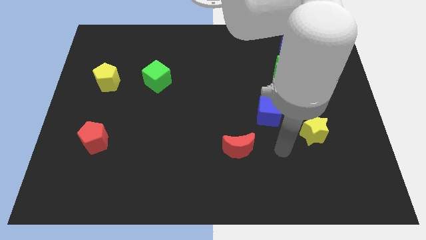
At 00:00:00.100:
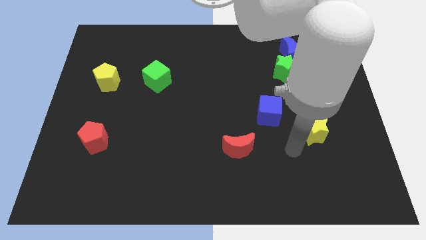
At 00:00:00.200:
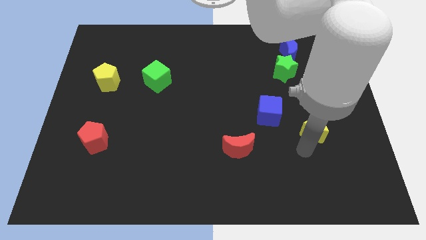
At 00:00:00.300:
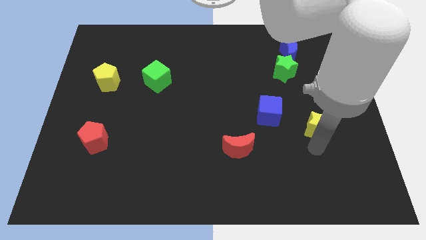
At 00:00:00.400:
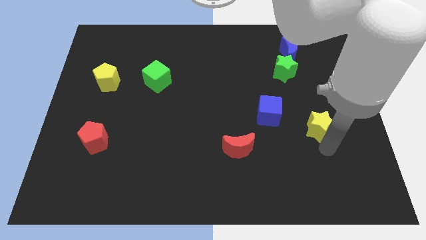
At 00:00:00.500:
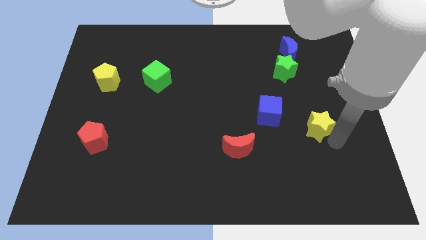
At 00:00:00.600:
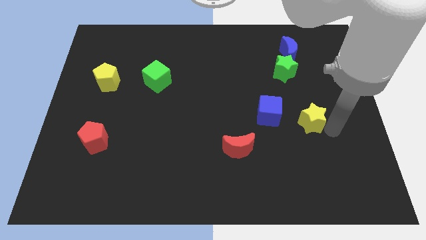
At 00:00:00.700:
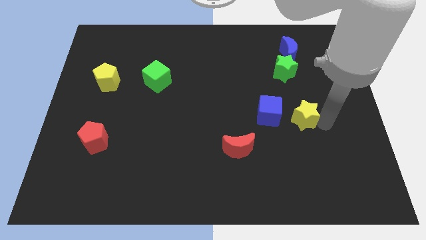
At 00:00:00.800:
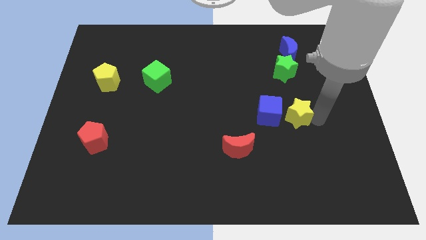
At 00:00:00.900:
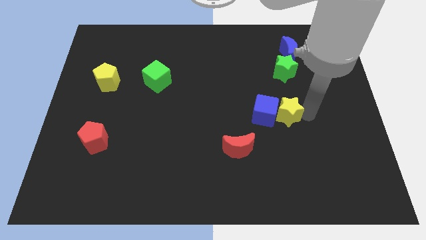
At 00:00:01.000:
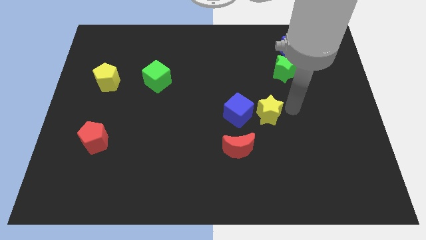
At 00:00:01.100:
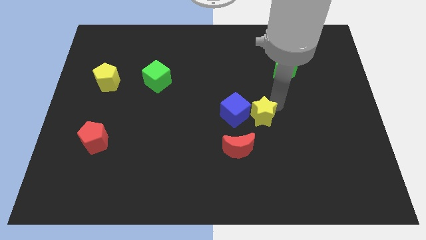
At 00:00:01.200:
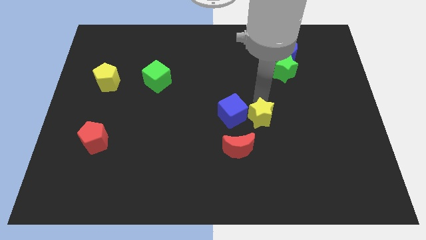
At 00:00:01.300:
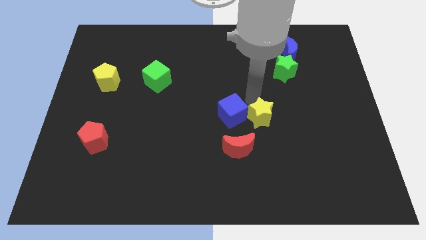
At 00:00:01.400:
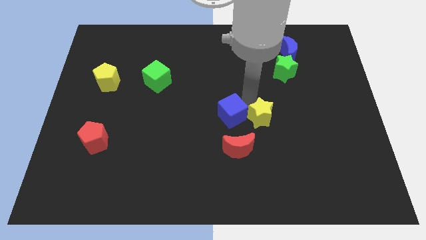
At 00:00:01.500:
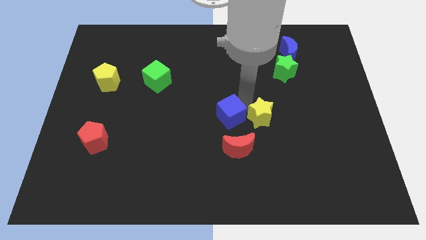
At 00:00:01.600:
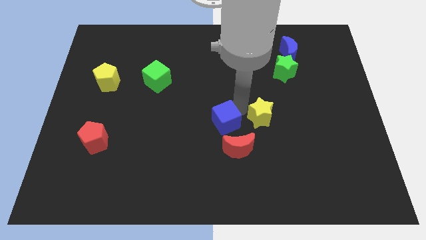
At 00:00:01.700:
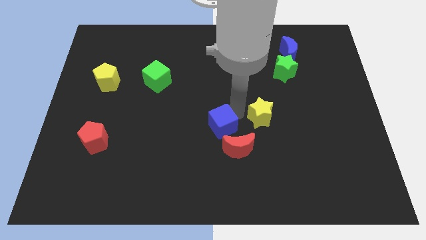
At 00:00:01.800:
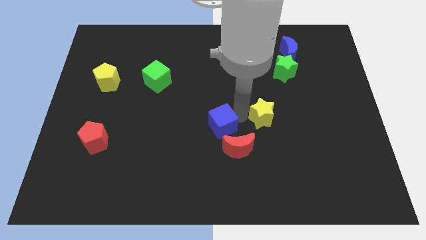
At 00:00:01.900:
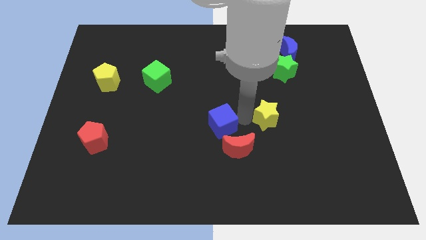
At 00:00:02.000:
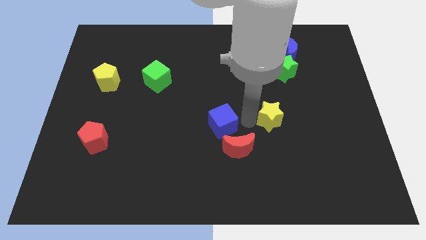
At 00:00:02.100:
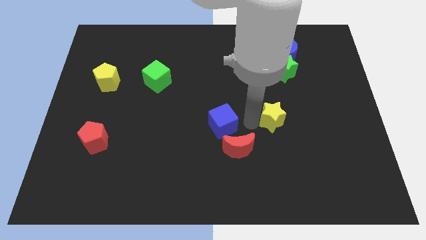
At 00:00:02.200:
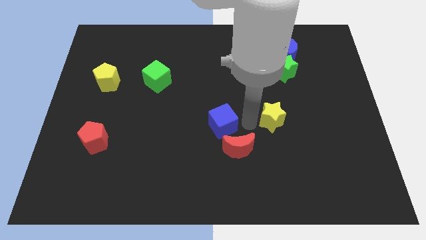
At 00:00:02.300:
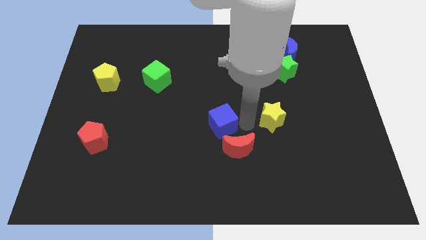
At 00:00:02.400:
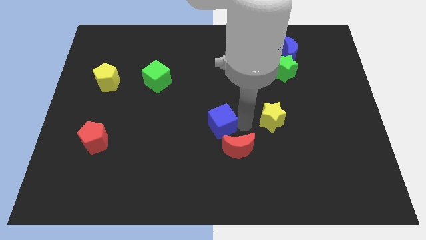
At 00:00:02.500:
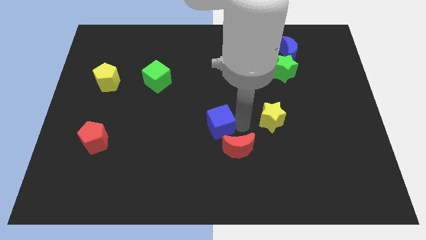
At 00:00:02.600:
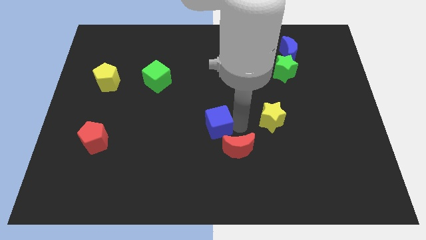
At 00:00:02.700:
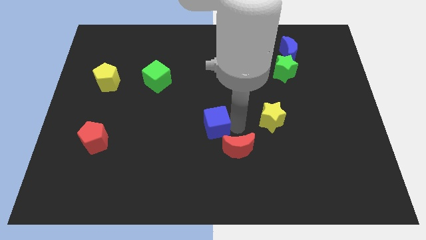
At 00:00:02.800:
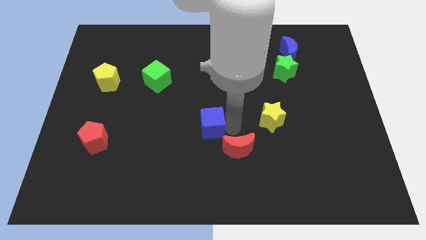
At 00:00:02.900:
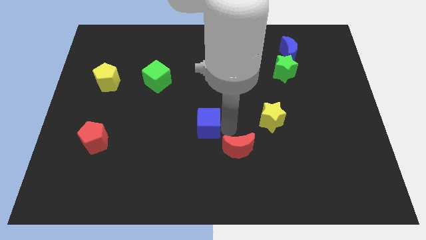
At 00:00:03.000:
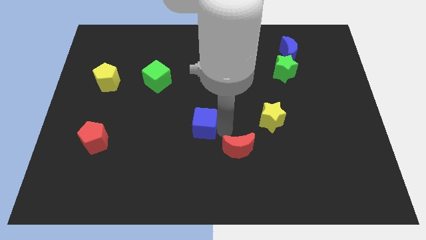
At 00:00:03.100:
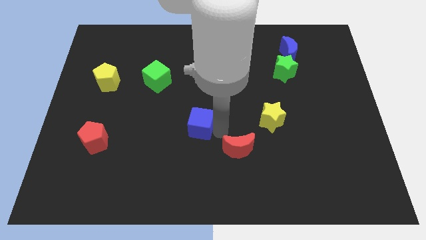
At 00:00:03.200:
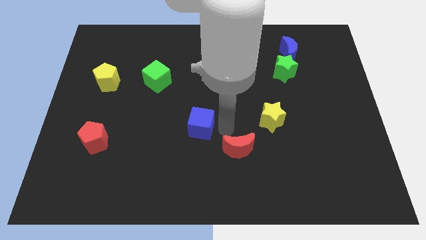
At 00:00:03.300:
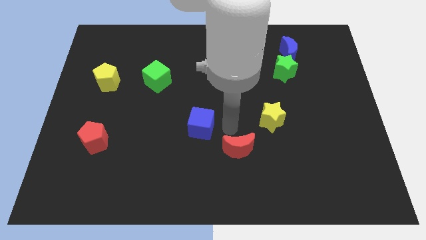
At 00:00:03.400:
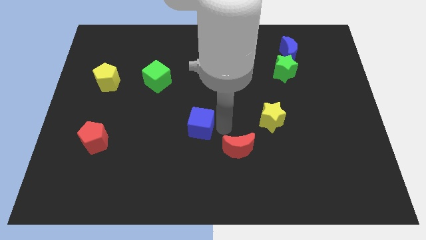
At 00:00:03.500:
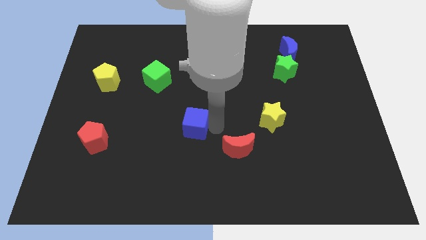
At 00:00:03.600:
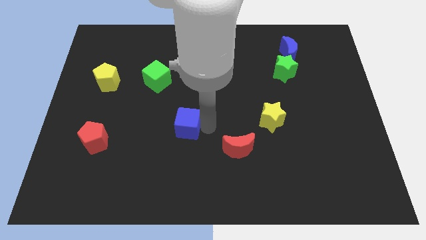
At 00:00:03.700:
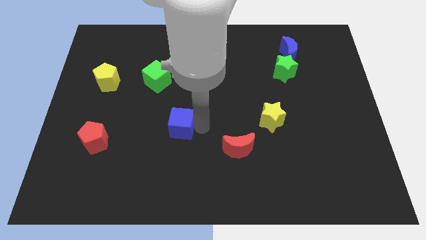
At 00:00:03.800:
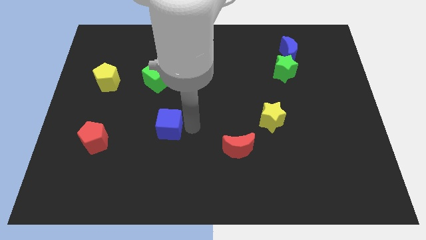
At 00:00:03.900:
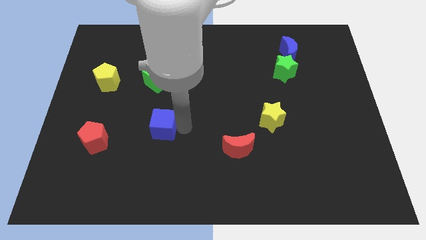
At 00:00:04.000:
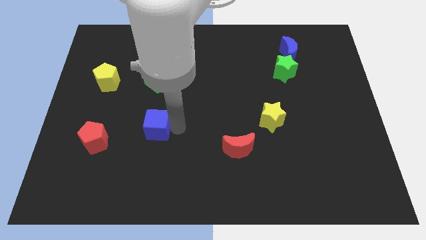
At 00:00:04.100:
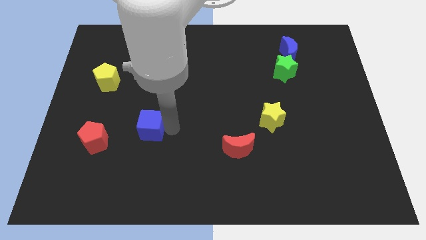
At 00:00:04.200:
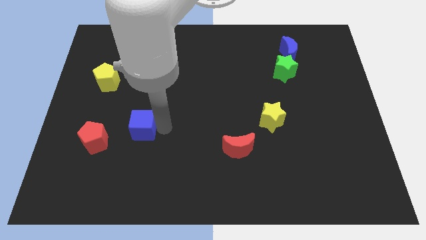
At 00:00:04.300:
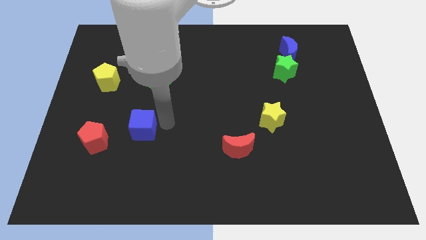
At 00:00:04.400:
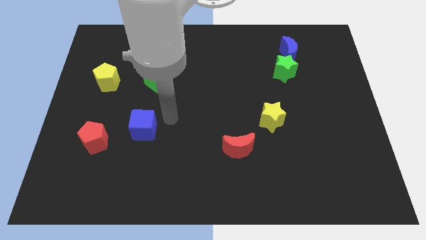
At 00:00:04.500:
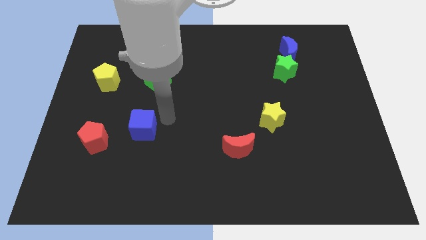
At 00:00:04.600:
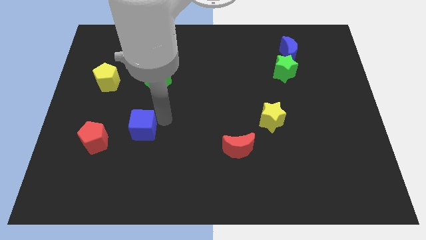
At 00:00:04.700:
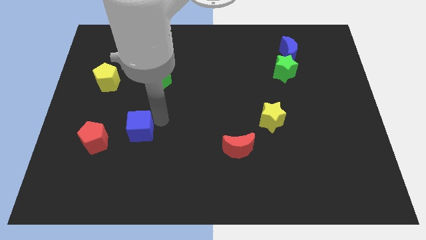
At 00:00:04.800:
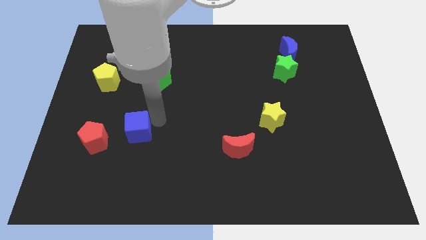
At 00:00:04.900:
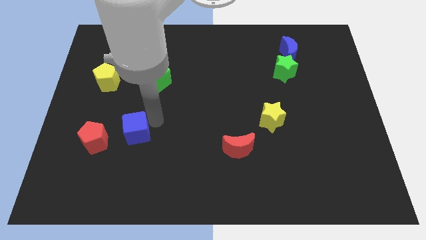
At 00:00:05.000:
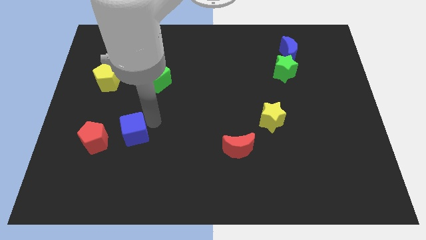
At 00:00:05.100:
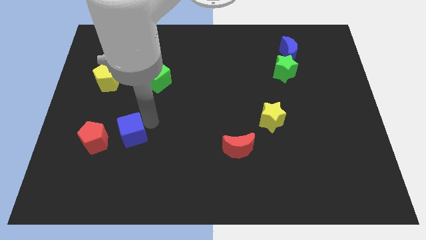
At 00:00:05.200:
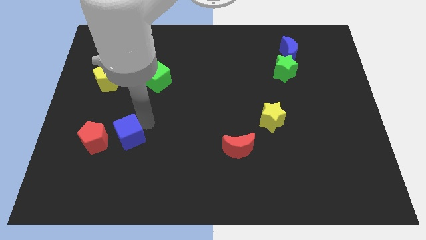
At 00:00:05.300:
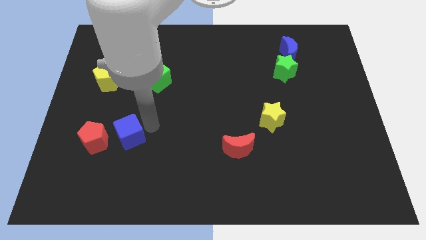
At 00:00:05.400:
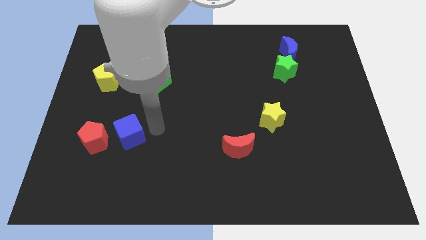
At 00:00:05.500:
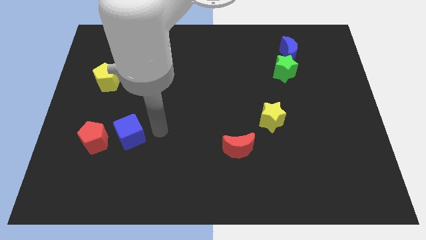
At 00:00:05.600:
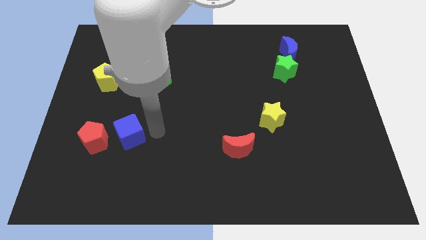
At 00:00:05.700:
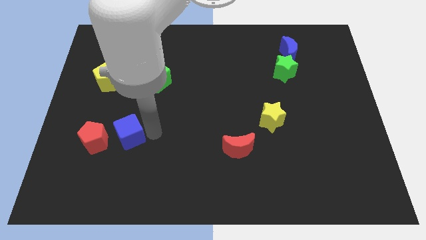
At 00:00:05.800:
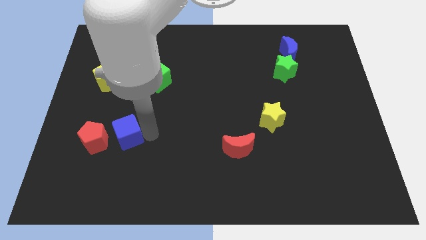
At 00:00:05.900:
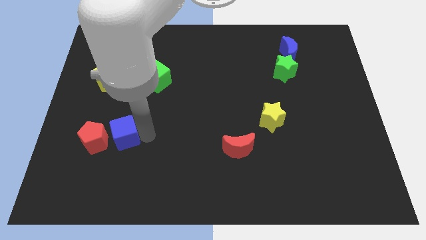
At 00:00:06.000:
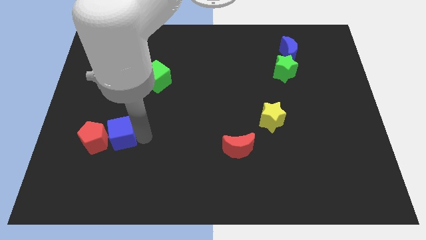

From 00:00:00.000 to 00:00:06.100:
push the blue cube to the red pentagon

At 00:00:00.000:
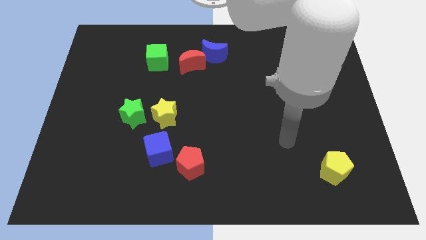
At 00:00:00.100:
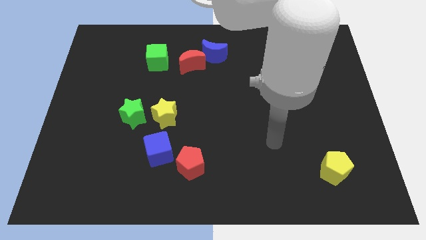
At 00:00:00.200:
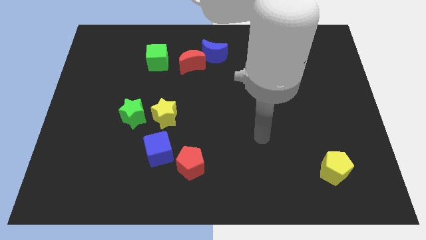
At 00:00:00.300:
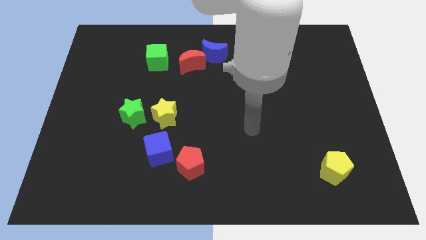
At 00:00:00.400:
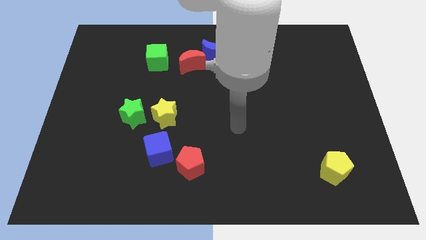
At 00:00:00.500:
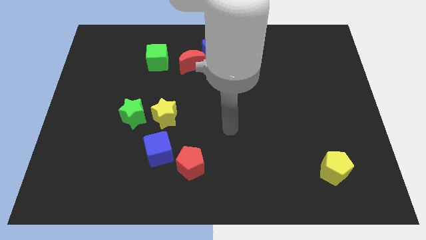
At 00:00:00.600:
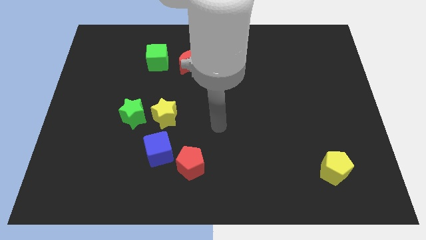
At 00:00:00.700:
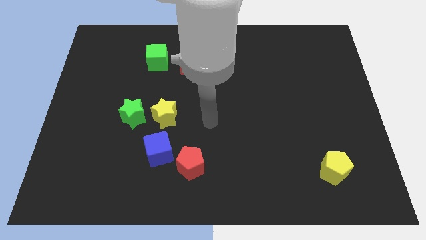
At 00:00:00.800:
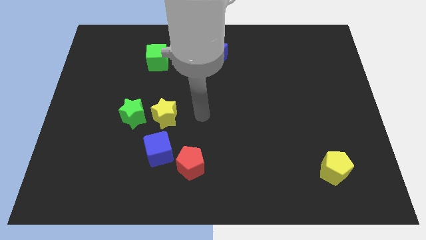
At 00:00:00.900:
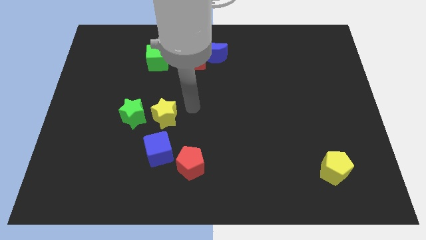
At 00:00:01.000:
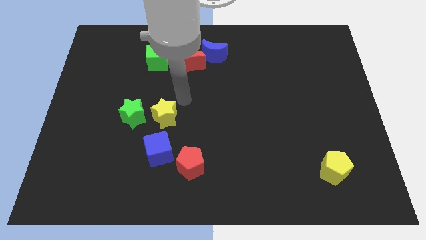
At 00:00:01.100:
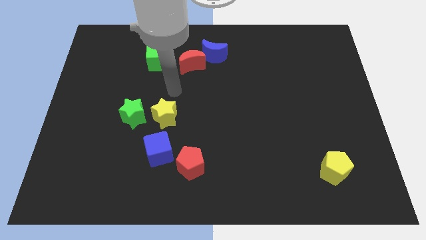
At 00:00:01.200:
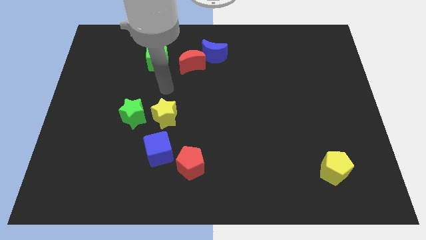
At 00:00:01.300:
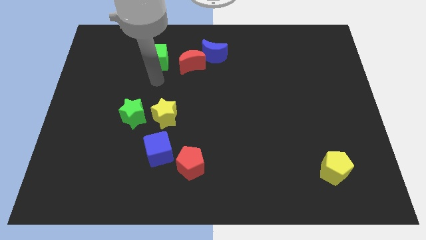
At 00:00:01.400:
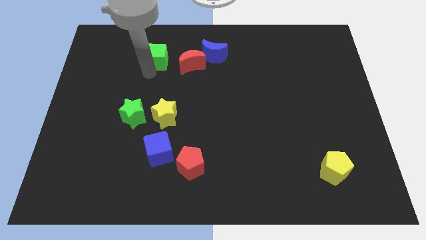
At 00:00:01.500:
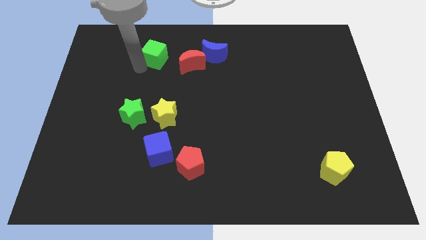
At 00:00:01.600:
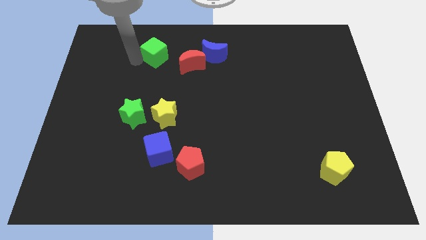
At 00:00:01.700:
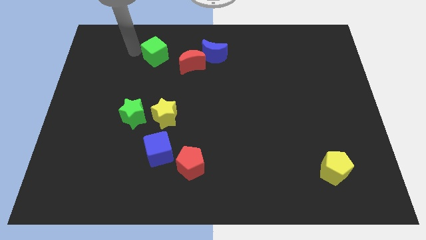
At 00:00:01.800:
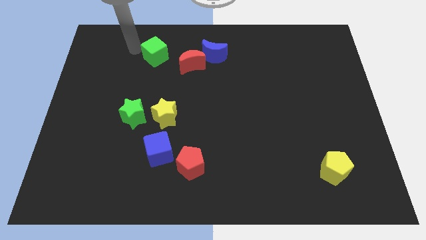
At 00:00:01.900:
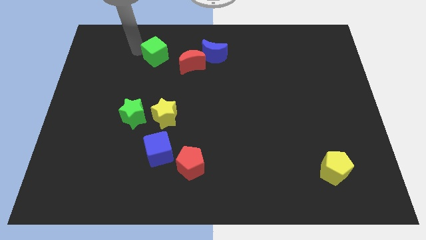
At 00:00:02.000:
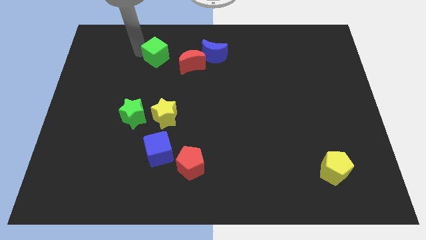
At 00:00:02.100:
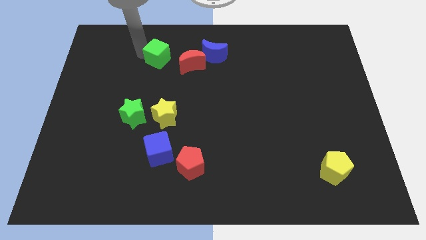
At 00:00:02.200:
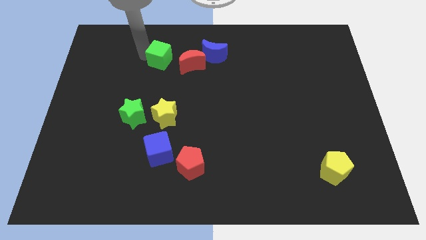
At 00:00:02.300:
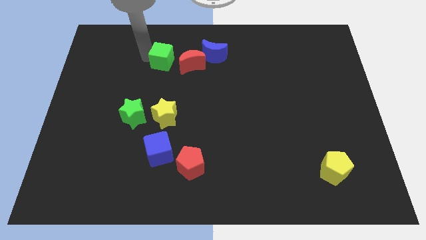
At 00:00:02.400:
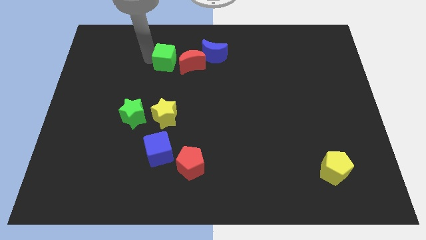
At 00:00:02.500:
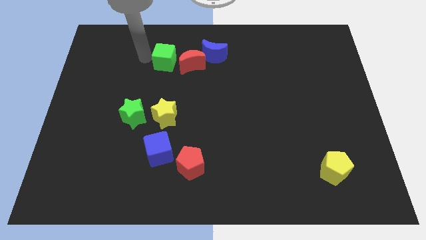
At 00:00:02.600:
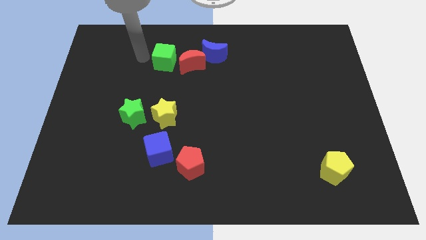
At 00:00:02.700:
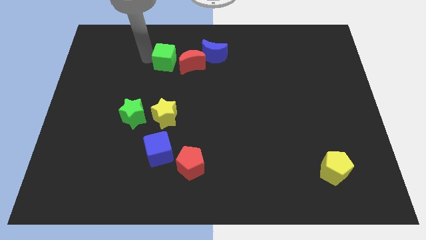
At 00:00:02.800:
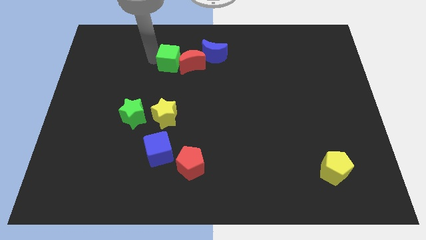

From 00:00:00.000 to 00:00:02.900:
slide the green cube to the red moon
